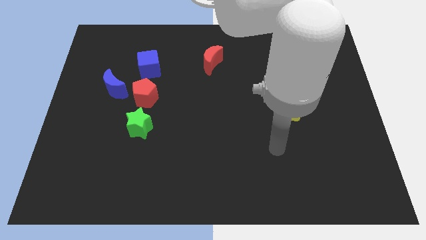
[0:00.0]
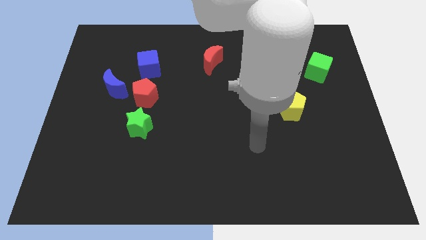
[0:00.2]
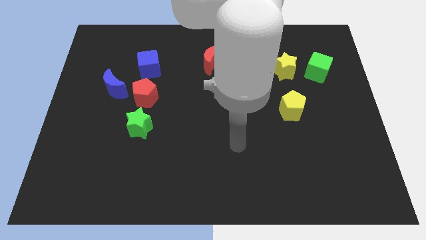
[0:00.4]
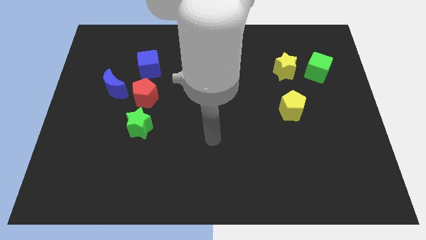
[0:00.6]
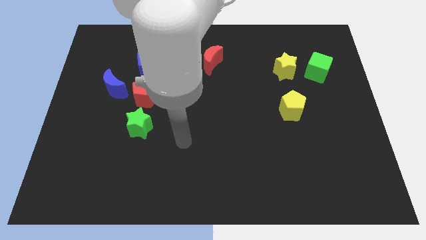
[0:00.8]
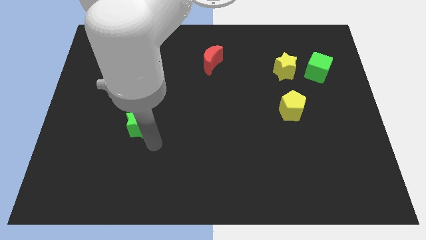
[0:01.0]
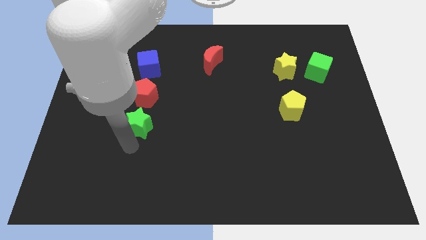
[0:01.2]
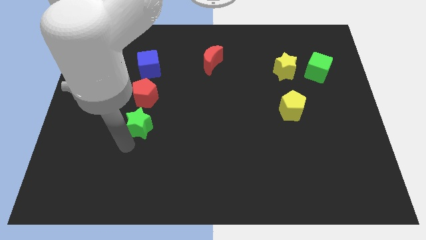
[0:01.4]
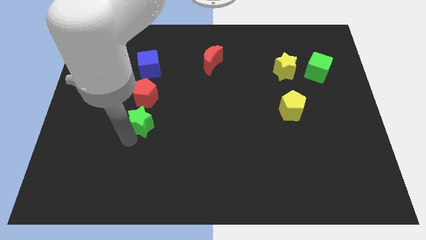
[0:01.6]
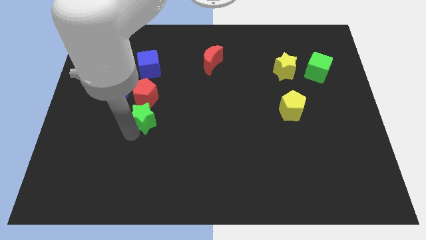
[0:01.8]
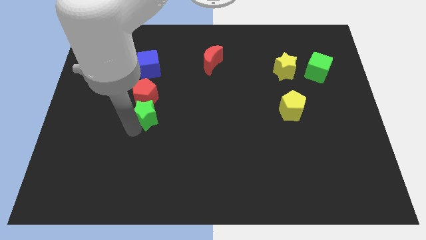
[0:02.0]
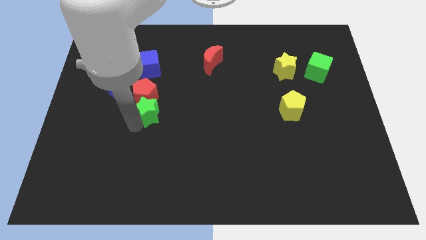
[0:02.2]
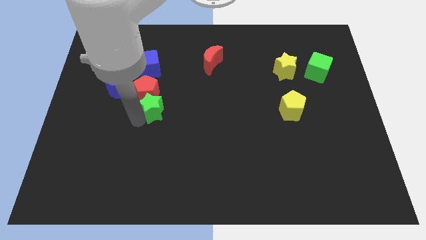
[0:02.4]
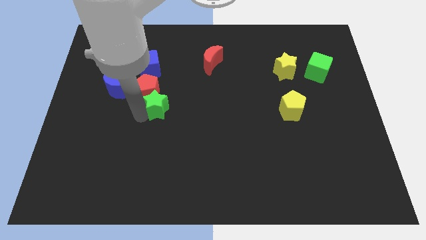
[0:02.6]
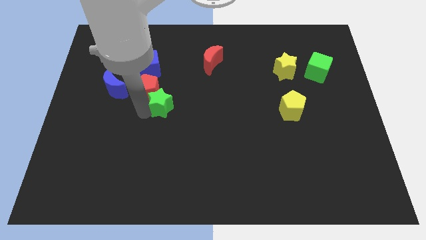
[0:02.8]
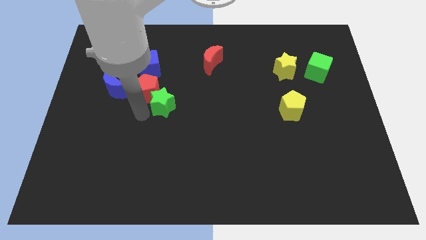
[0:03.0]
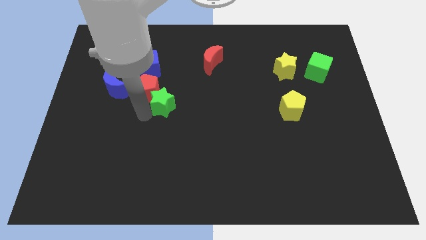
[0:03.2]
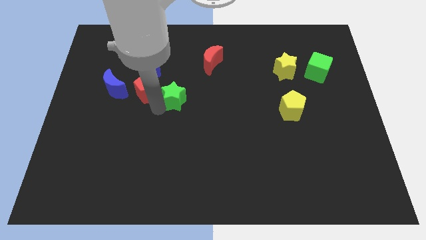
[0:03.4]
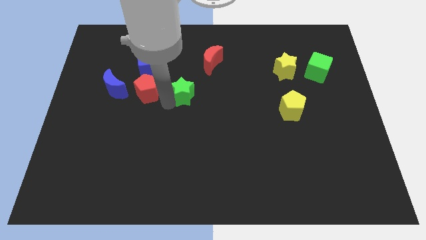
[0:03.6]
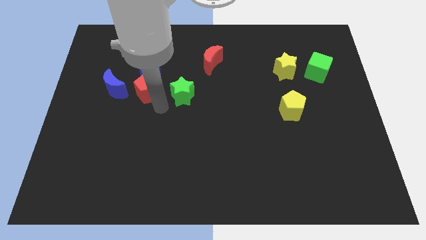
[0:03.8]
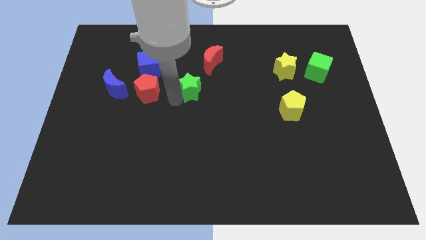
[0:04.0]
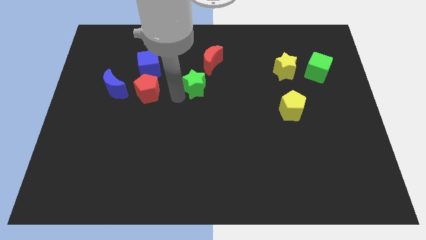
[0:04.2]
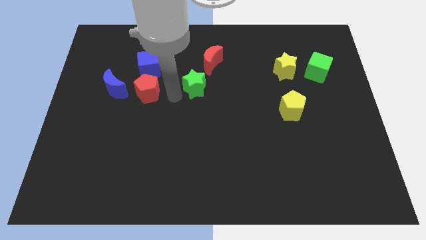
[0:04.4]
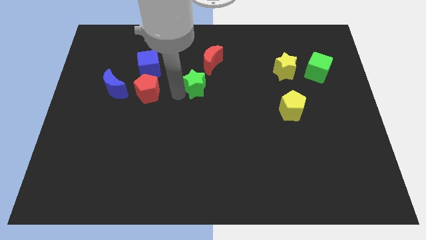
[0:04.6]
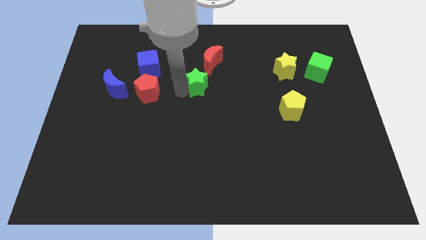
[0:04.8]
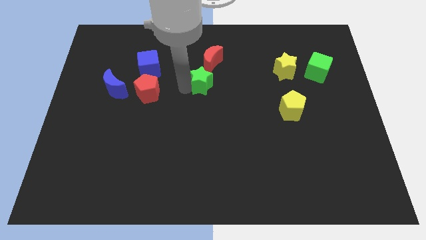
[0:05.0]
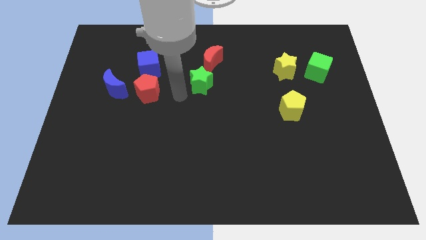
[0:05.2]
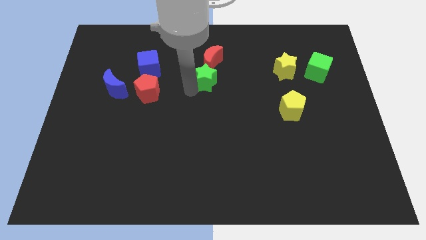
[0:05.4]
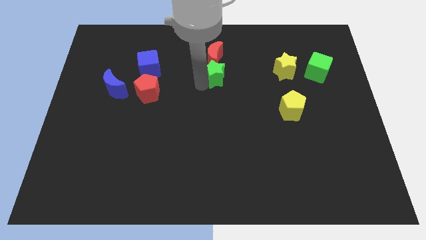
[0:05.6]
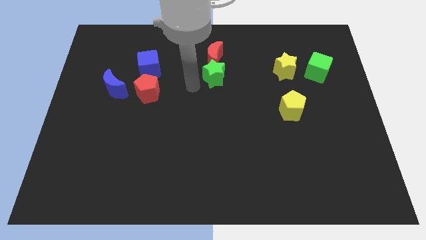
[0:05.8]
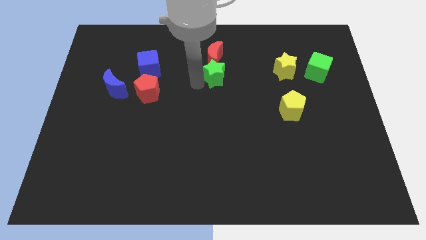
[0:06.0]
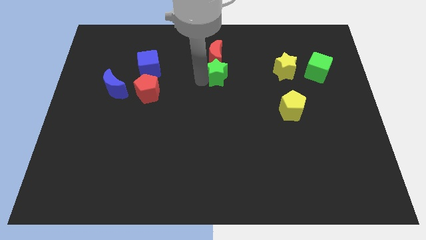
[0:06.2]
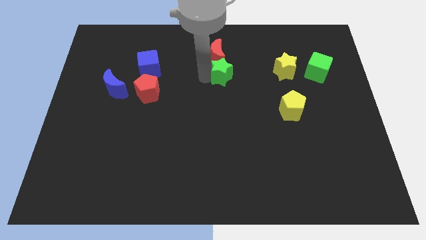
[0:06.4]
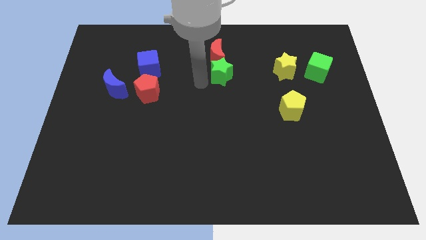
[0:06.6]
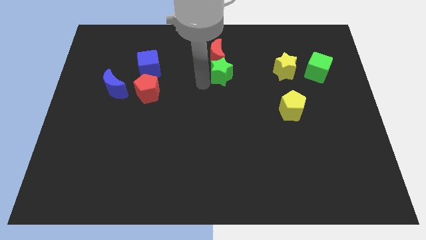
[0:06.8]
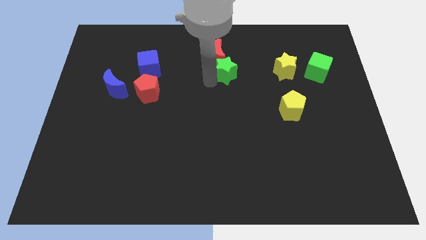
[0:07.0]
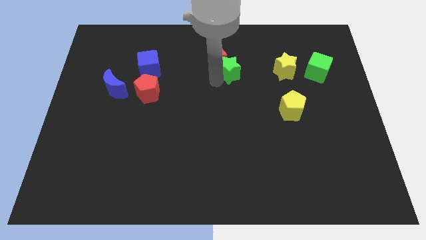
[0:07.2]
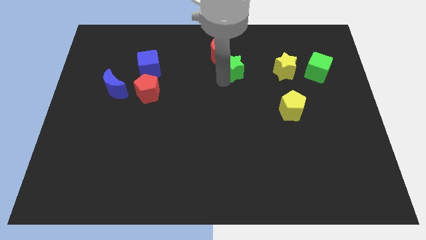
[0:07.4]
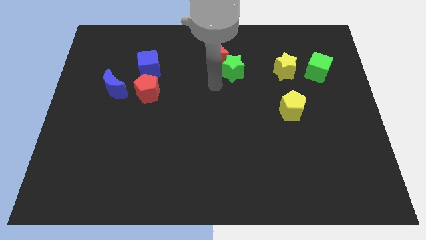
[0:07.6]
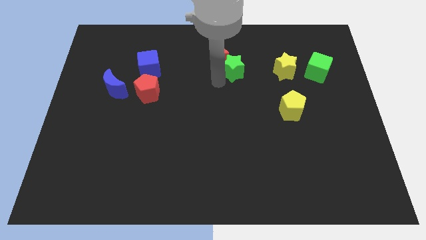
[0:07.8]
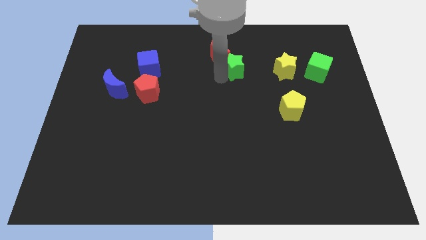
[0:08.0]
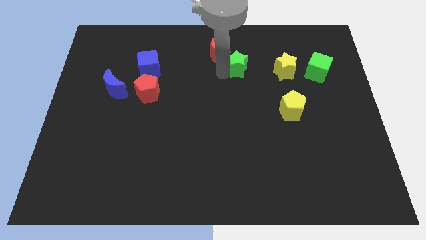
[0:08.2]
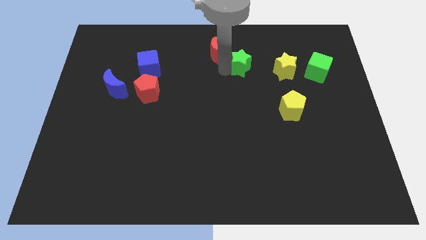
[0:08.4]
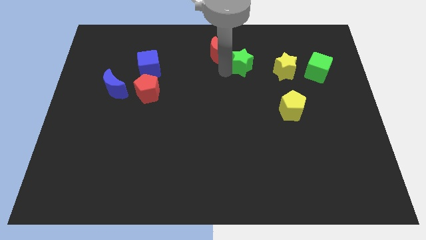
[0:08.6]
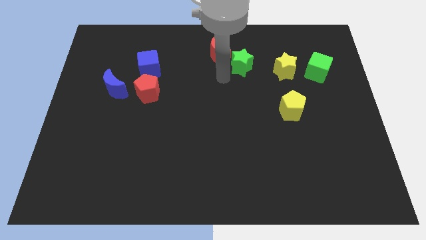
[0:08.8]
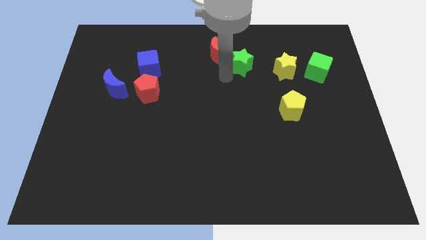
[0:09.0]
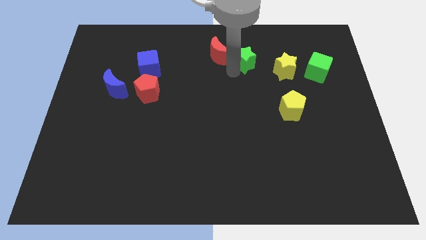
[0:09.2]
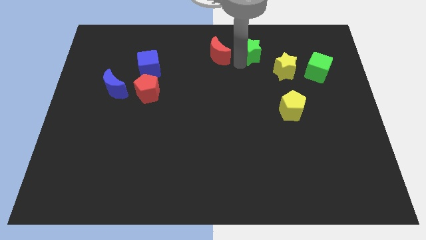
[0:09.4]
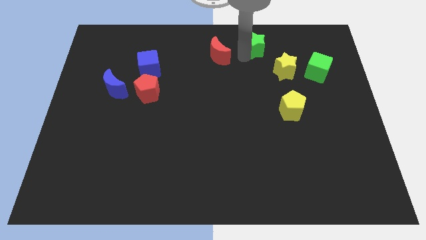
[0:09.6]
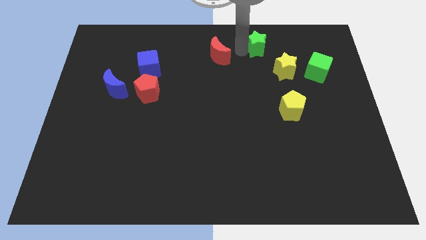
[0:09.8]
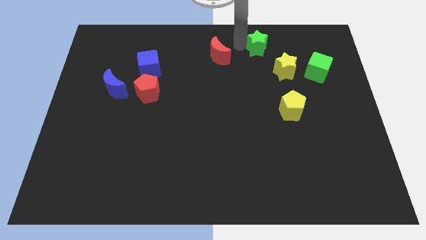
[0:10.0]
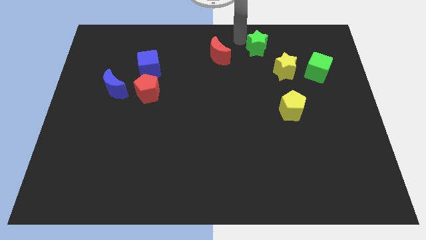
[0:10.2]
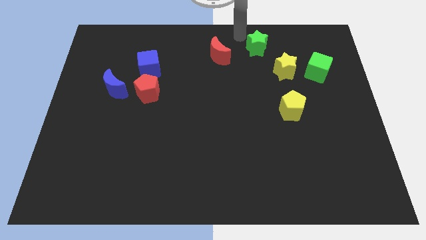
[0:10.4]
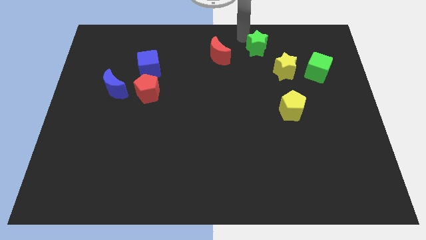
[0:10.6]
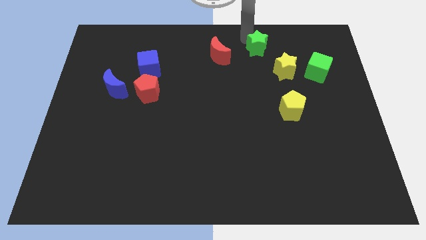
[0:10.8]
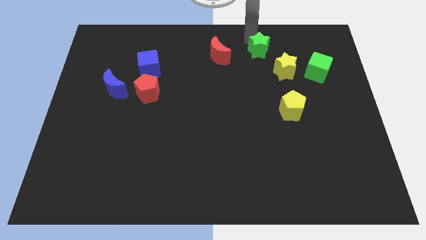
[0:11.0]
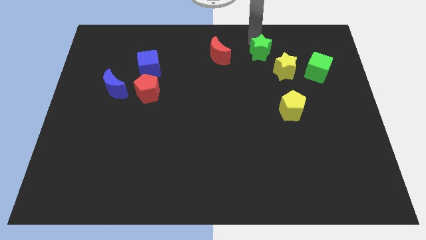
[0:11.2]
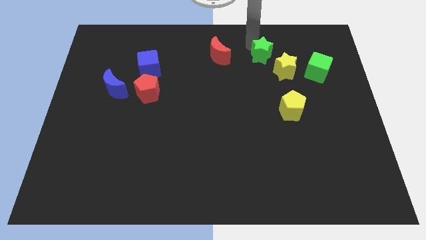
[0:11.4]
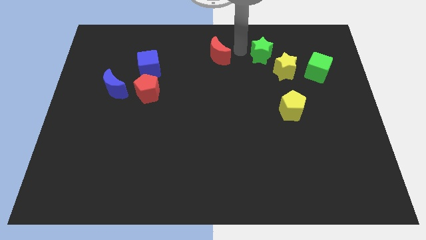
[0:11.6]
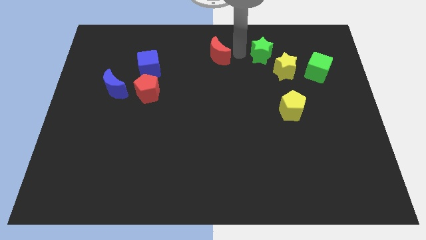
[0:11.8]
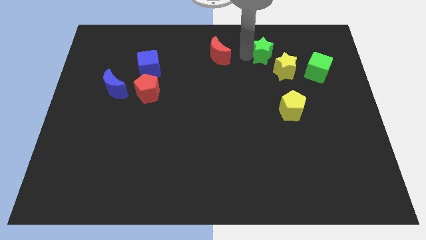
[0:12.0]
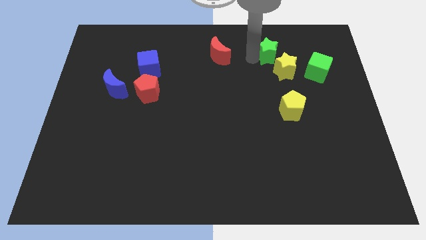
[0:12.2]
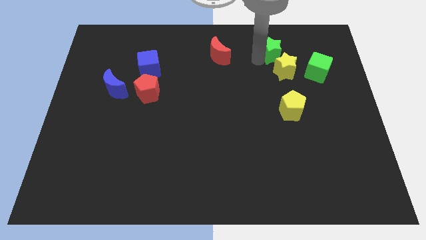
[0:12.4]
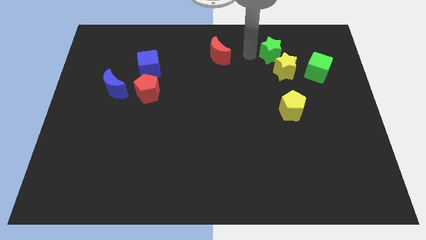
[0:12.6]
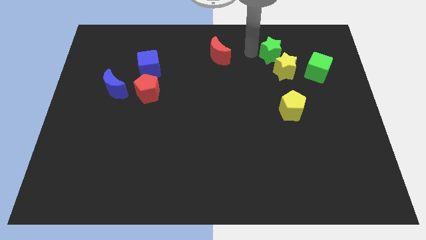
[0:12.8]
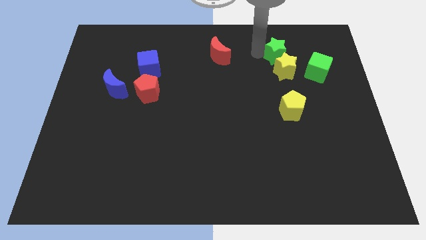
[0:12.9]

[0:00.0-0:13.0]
put the green star diagonally up and to the left of the green cube
